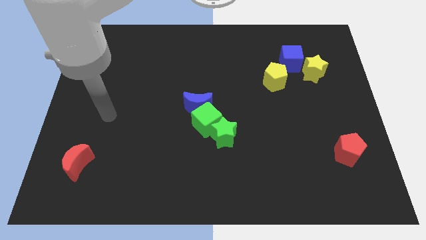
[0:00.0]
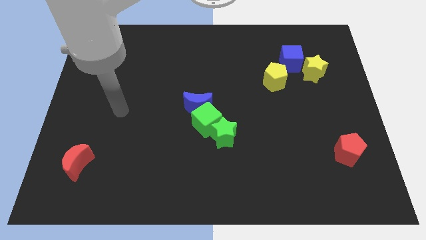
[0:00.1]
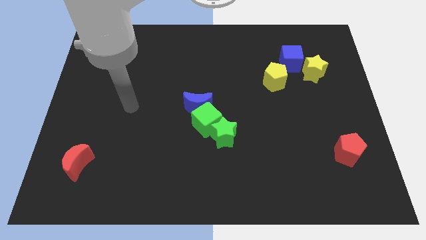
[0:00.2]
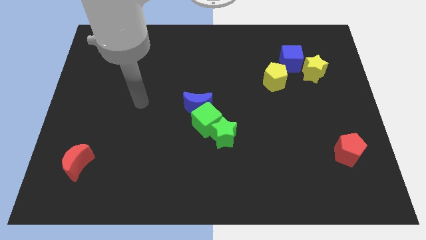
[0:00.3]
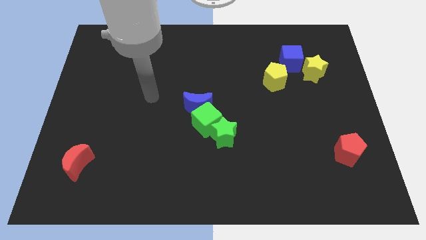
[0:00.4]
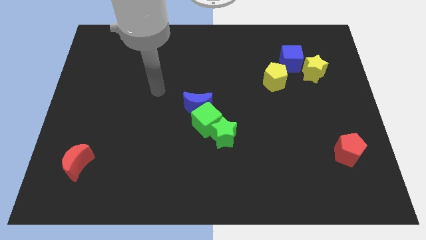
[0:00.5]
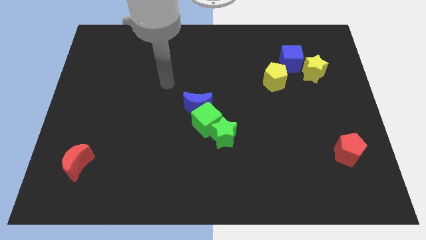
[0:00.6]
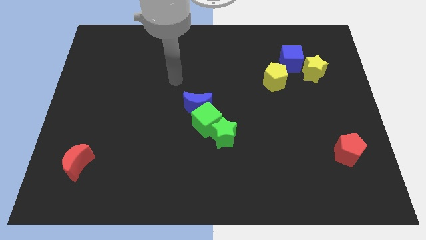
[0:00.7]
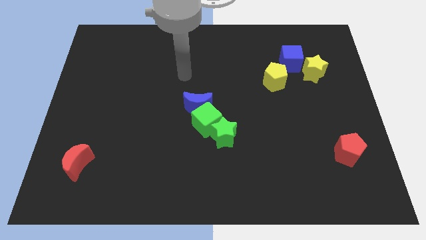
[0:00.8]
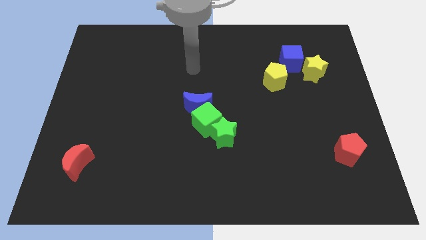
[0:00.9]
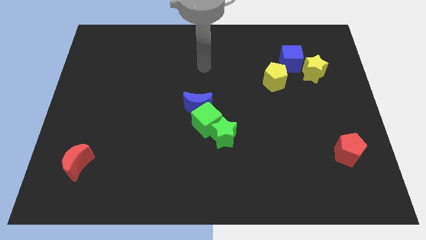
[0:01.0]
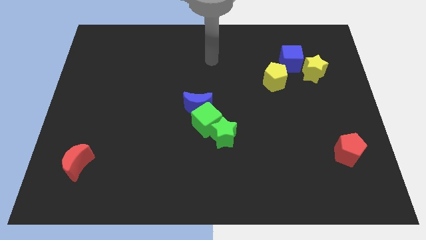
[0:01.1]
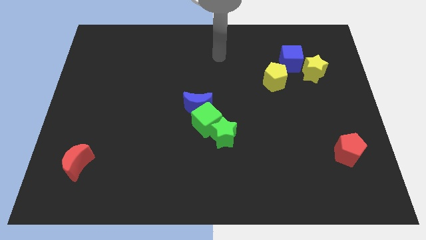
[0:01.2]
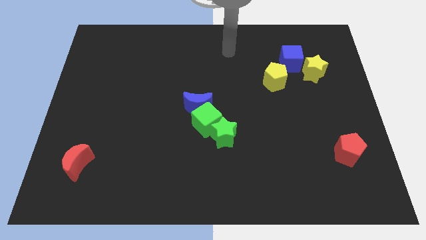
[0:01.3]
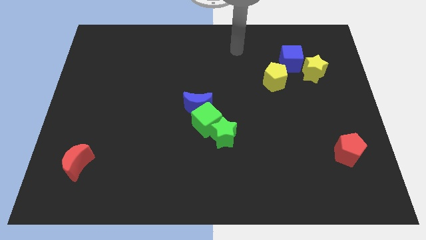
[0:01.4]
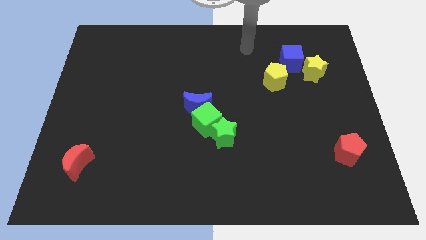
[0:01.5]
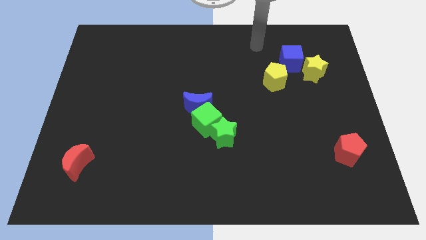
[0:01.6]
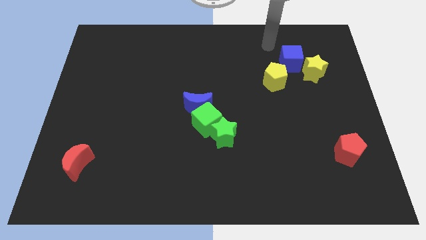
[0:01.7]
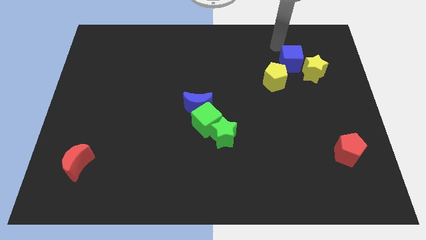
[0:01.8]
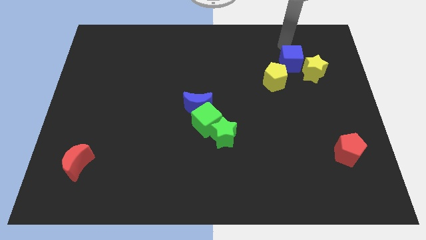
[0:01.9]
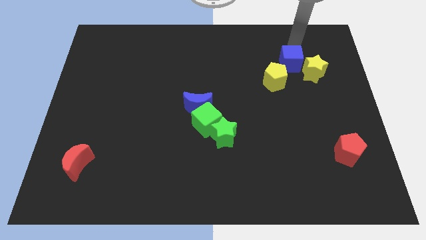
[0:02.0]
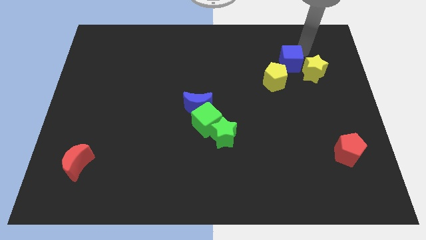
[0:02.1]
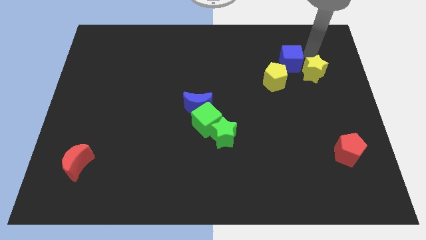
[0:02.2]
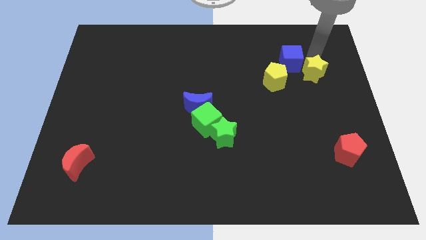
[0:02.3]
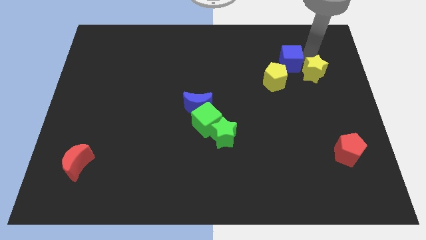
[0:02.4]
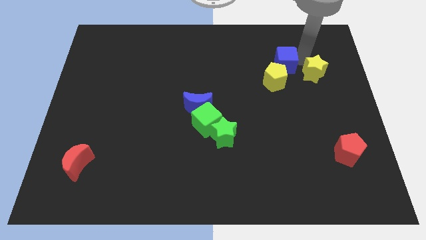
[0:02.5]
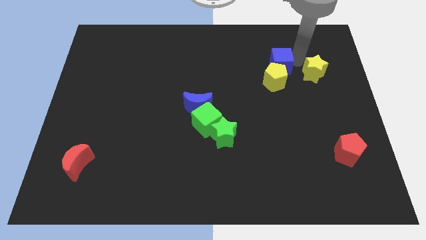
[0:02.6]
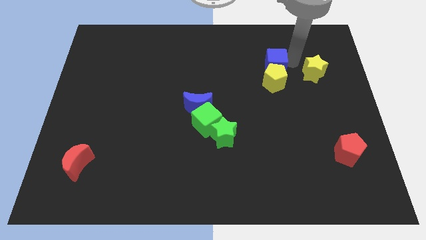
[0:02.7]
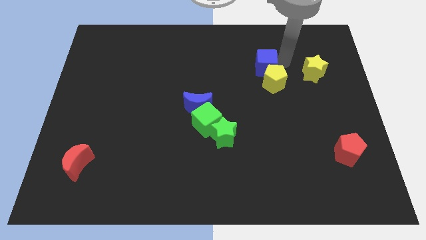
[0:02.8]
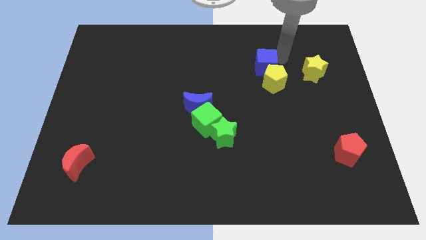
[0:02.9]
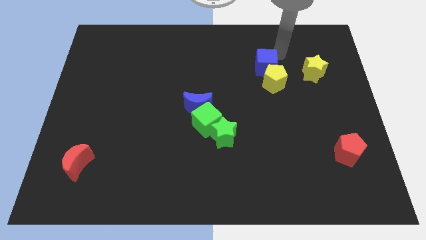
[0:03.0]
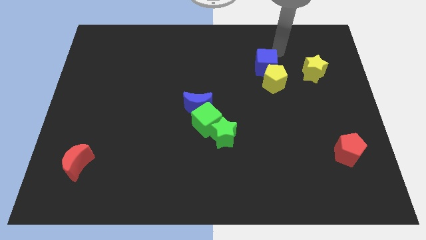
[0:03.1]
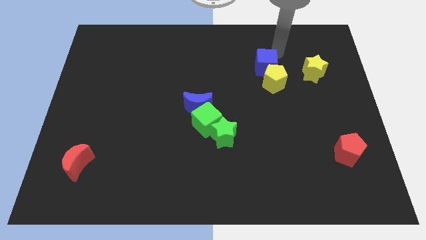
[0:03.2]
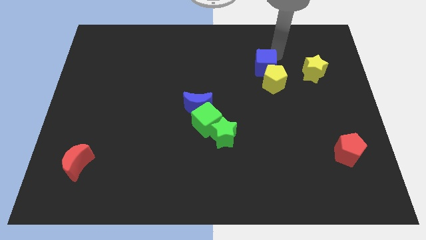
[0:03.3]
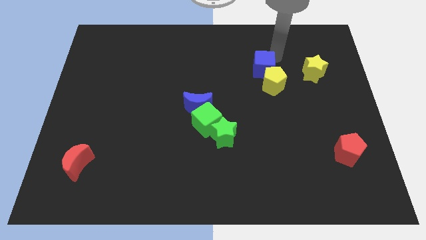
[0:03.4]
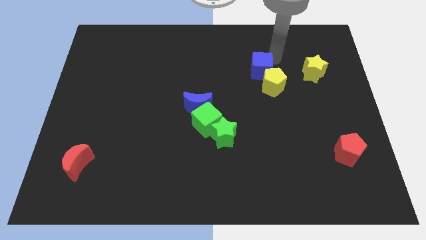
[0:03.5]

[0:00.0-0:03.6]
slightly push the blue cube diagonally downwards and to the left

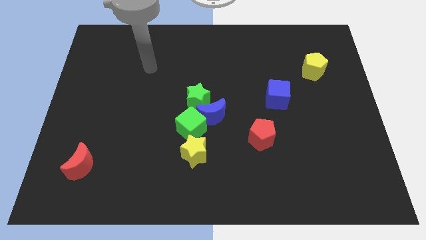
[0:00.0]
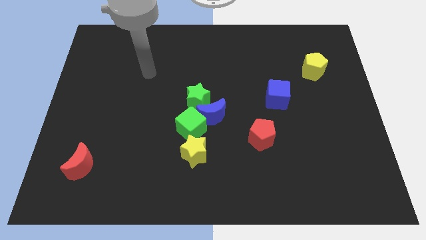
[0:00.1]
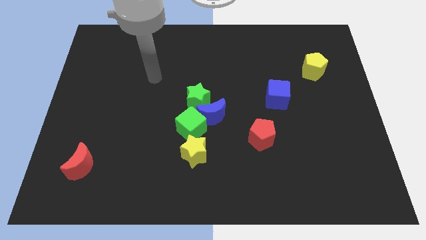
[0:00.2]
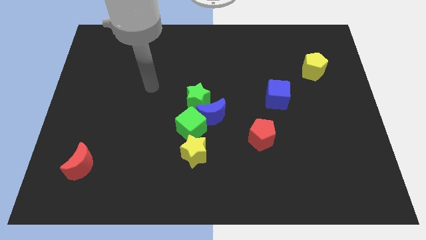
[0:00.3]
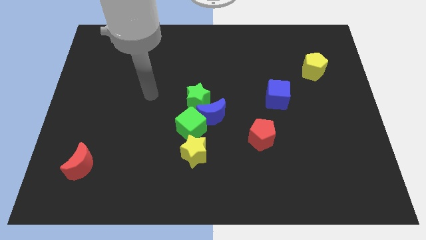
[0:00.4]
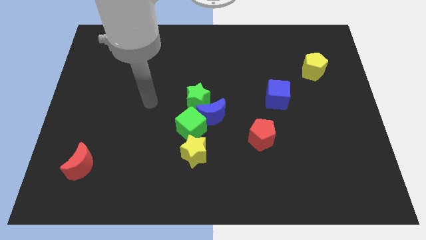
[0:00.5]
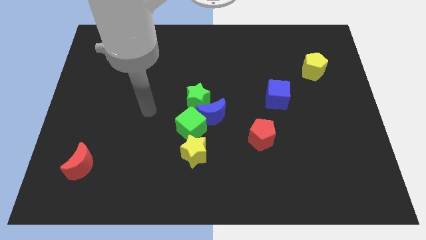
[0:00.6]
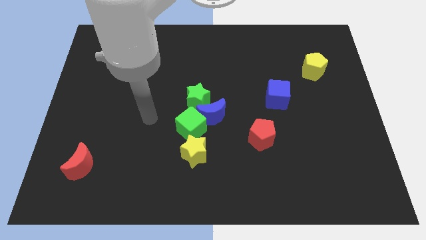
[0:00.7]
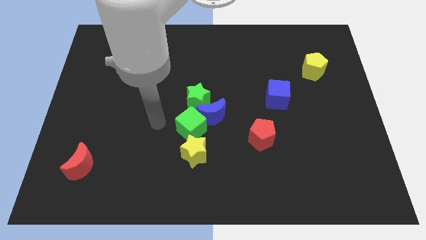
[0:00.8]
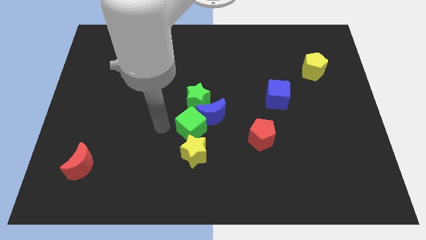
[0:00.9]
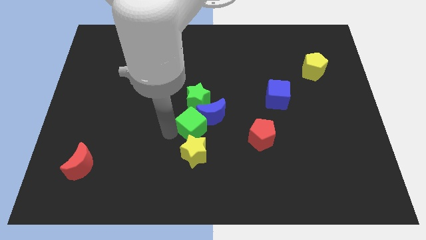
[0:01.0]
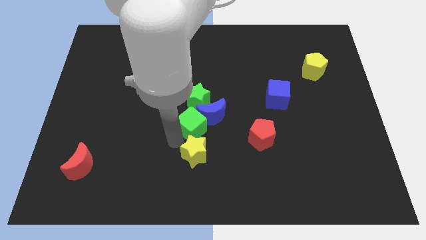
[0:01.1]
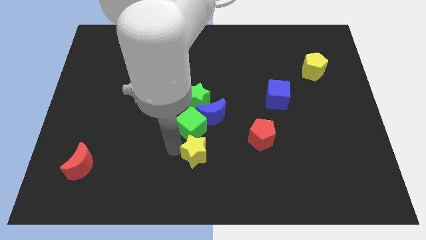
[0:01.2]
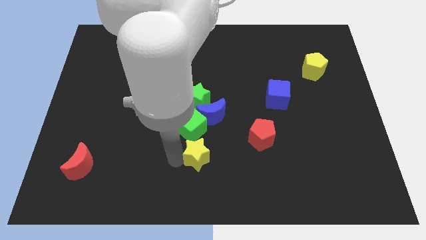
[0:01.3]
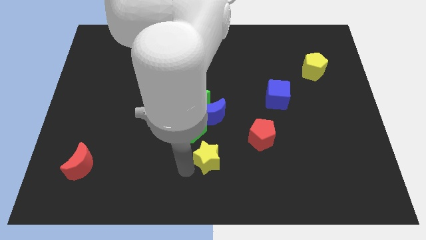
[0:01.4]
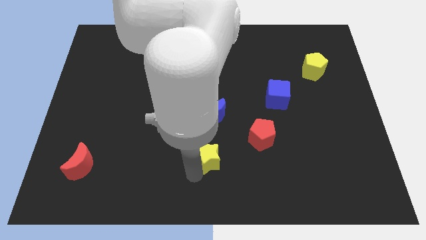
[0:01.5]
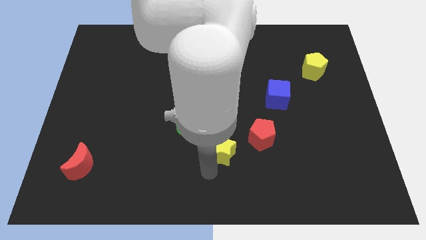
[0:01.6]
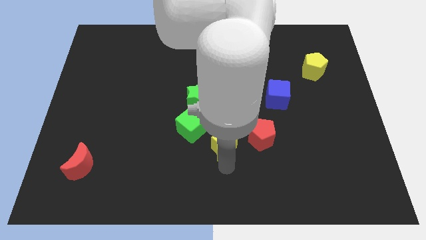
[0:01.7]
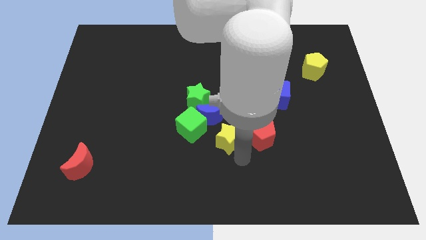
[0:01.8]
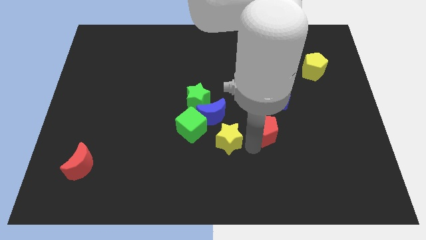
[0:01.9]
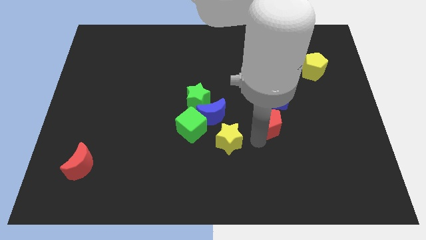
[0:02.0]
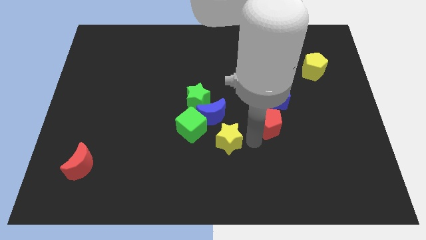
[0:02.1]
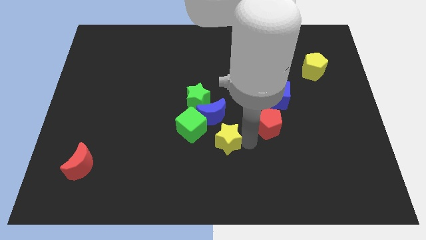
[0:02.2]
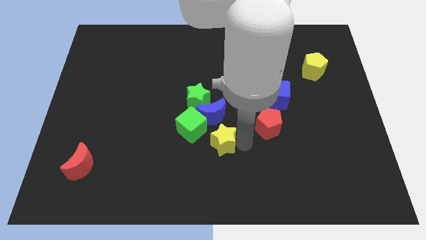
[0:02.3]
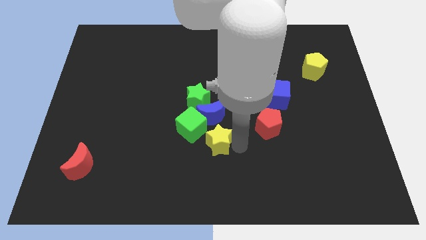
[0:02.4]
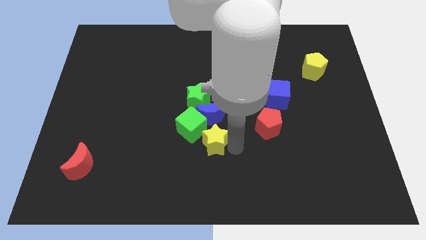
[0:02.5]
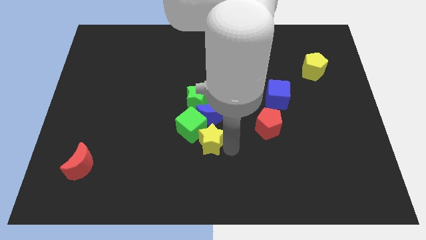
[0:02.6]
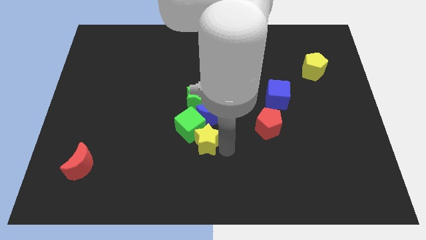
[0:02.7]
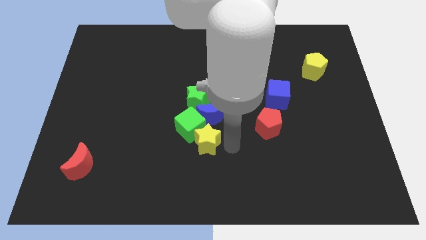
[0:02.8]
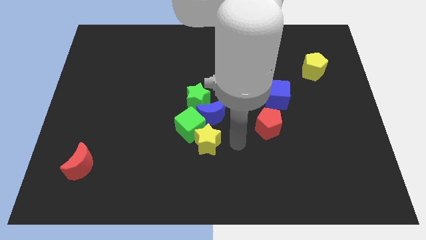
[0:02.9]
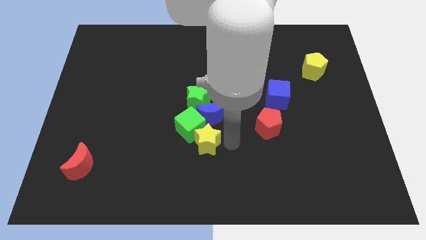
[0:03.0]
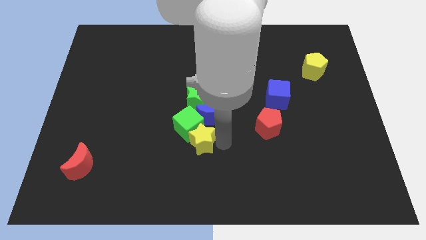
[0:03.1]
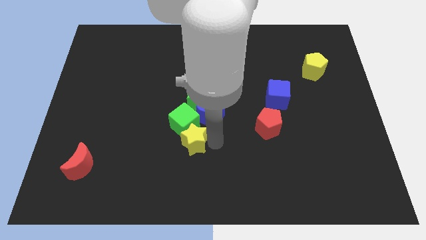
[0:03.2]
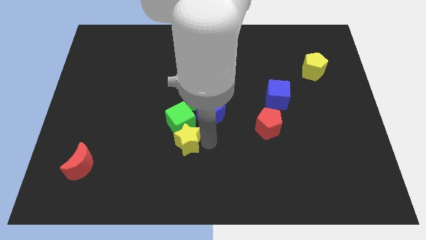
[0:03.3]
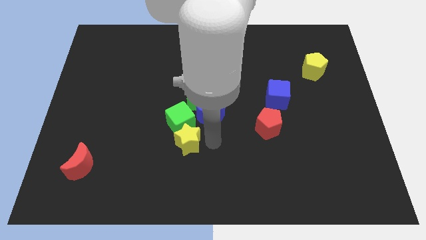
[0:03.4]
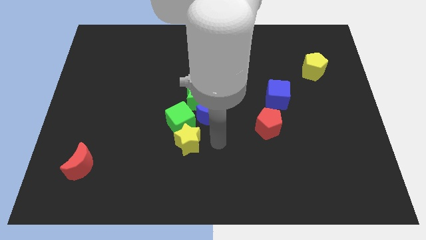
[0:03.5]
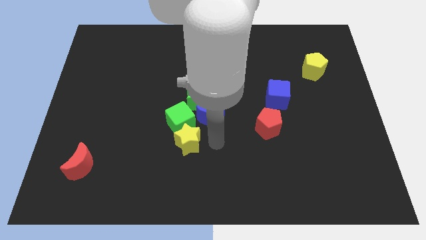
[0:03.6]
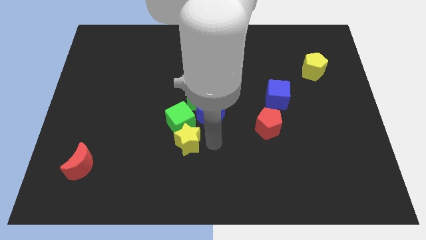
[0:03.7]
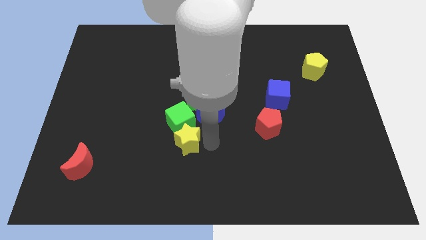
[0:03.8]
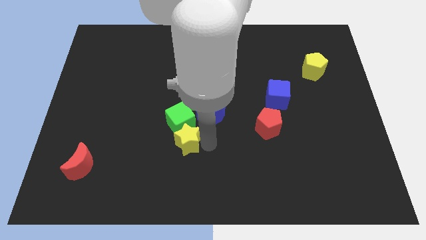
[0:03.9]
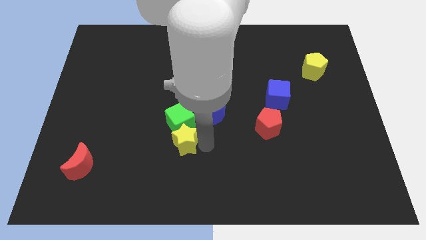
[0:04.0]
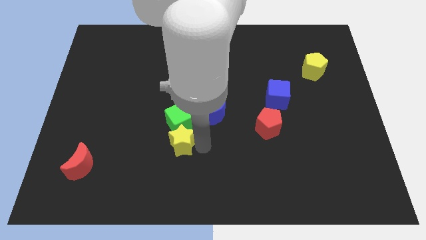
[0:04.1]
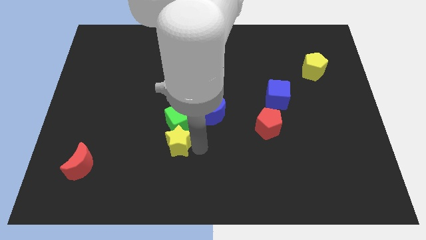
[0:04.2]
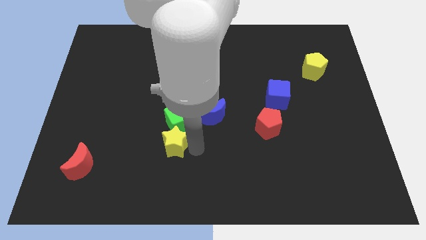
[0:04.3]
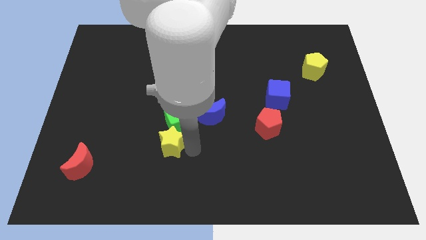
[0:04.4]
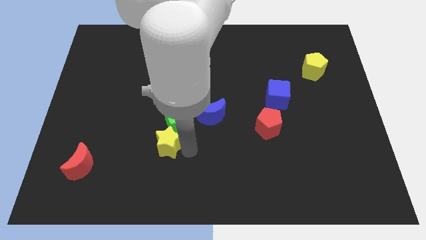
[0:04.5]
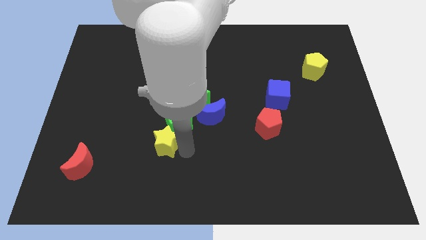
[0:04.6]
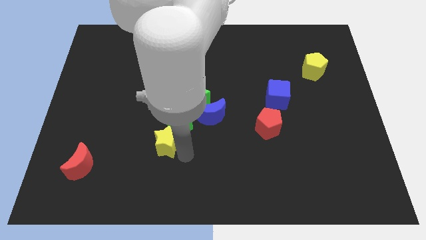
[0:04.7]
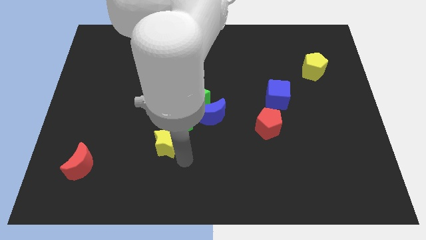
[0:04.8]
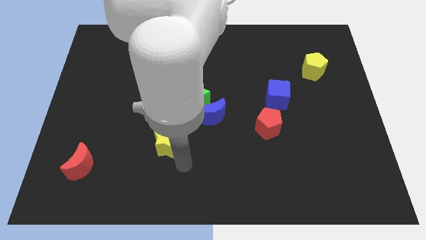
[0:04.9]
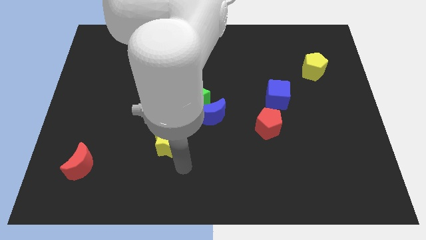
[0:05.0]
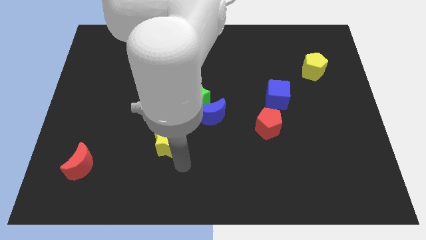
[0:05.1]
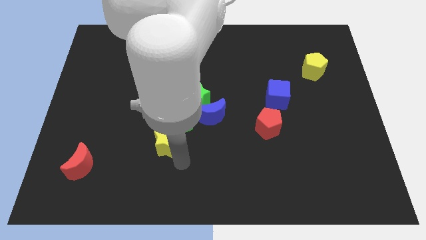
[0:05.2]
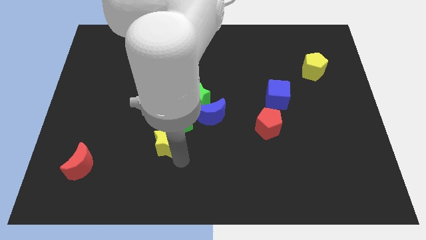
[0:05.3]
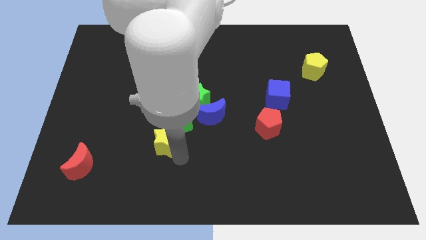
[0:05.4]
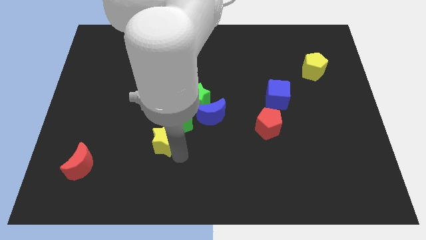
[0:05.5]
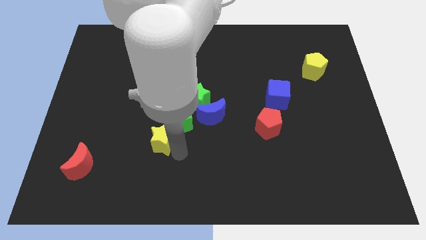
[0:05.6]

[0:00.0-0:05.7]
slightly move the yellow star upwards and to the left
